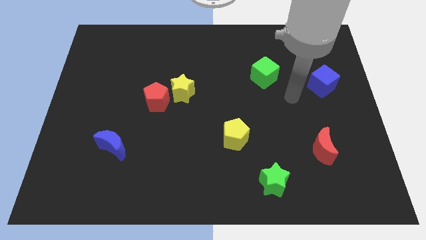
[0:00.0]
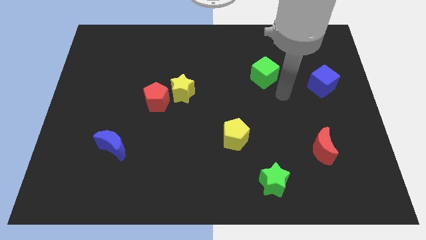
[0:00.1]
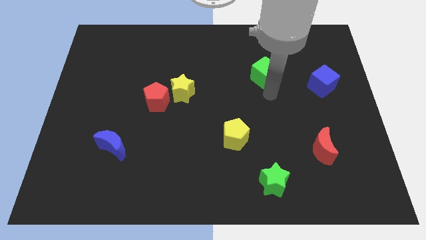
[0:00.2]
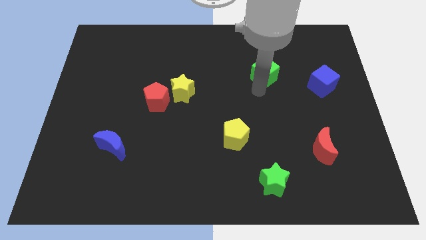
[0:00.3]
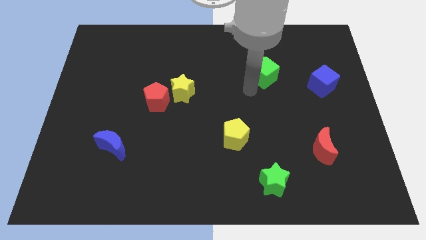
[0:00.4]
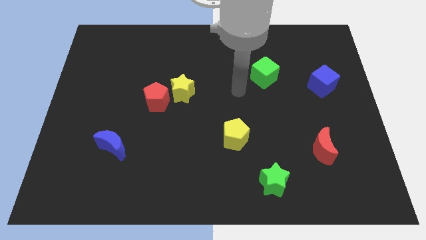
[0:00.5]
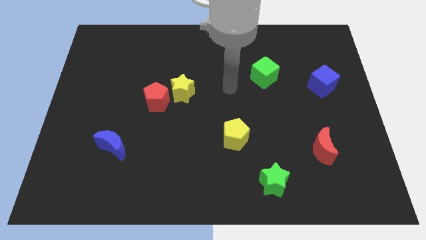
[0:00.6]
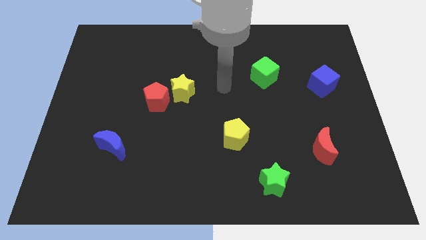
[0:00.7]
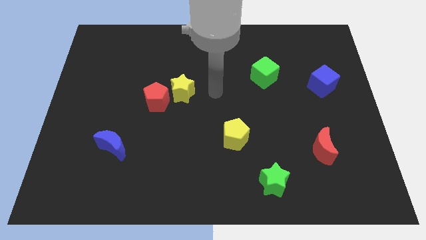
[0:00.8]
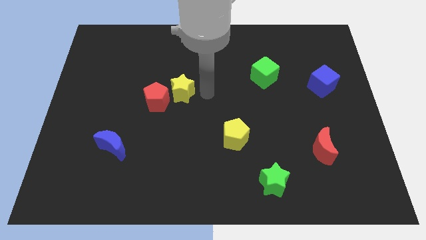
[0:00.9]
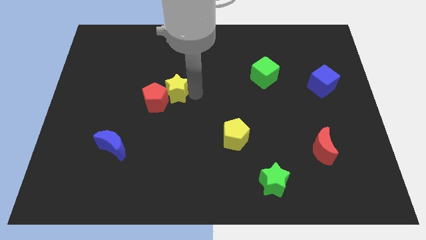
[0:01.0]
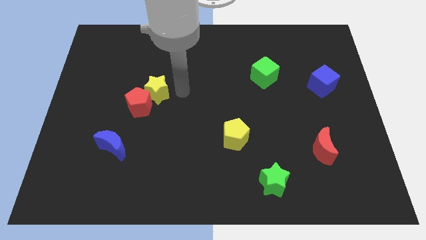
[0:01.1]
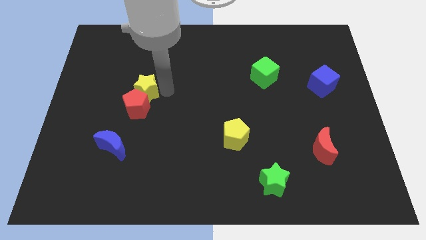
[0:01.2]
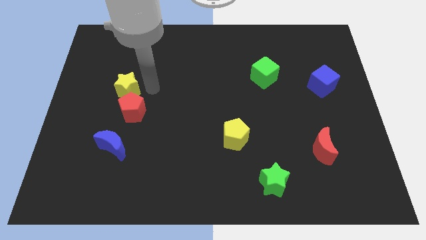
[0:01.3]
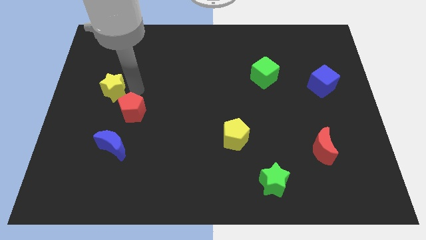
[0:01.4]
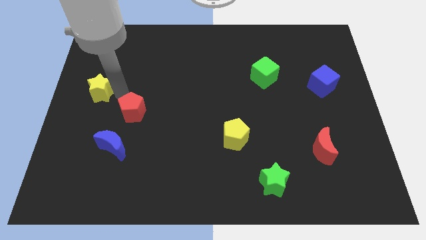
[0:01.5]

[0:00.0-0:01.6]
move the red pentagon away from the yellow star

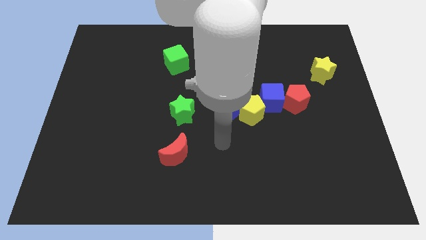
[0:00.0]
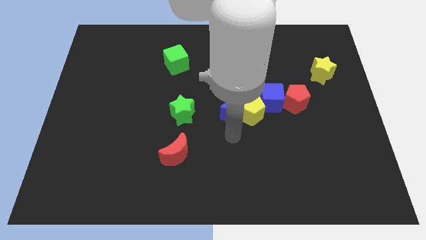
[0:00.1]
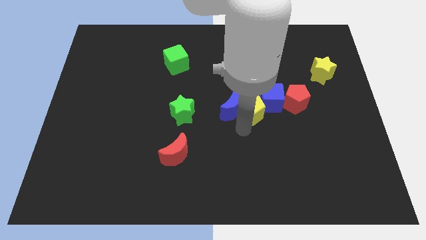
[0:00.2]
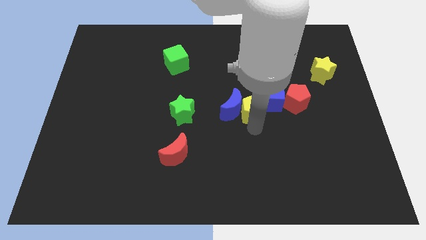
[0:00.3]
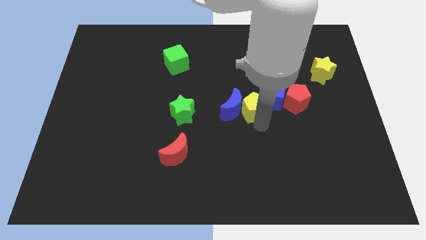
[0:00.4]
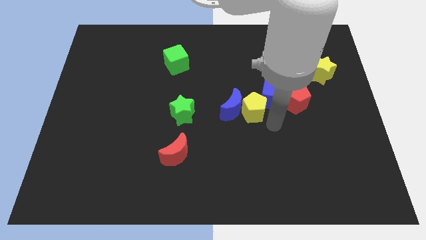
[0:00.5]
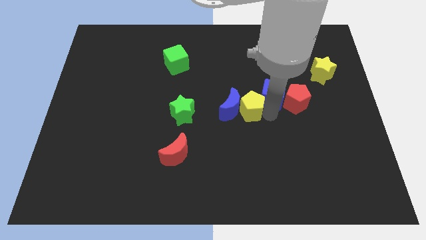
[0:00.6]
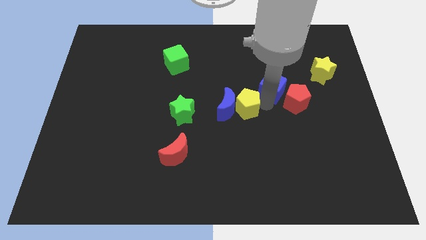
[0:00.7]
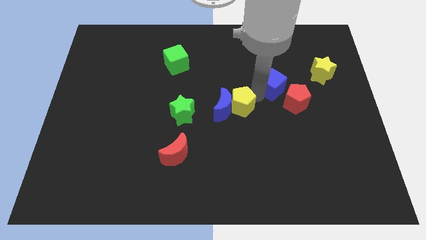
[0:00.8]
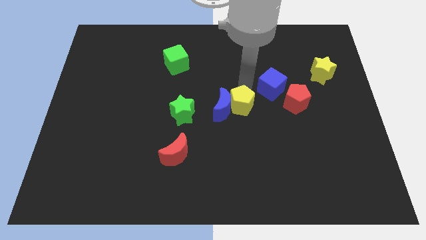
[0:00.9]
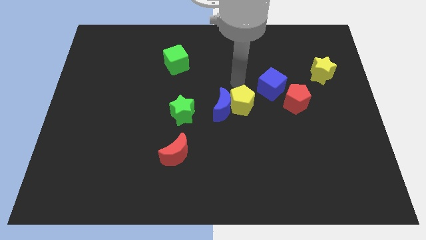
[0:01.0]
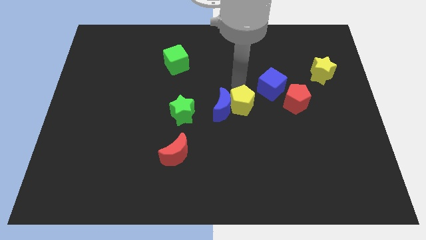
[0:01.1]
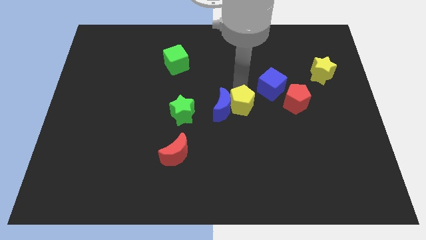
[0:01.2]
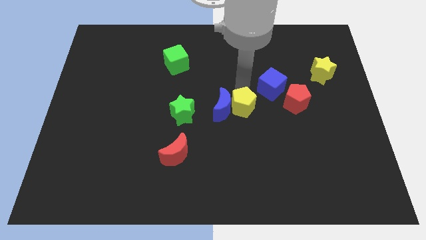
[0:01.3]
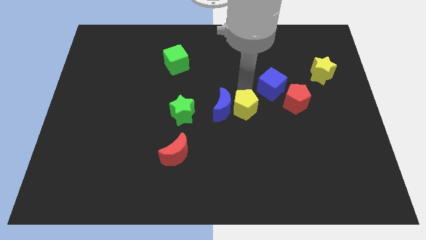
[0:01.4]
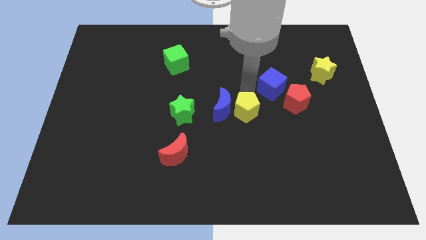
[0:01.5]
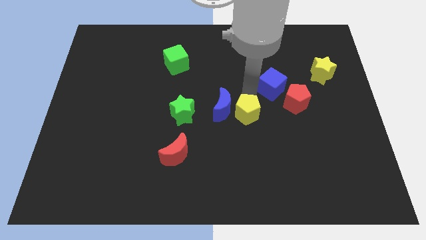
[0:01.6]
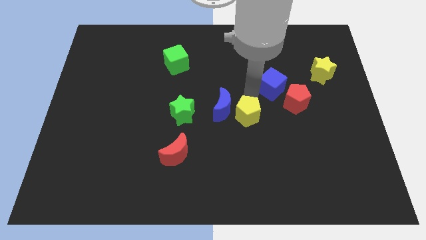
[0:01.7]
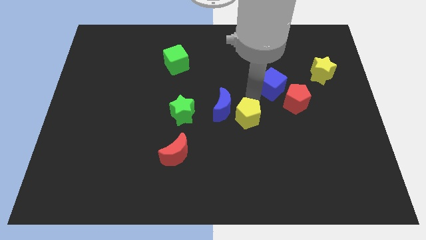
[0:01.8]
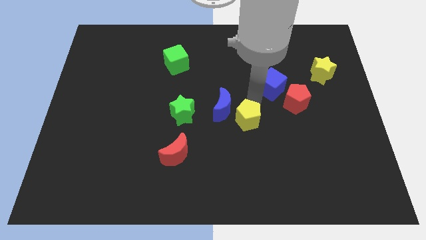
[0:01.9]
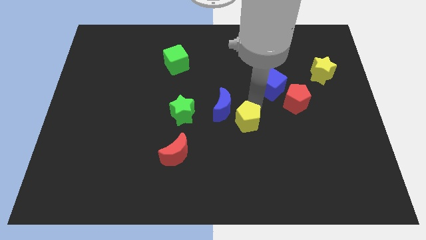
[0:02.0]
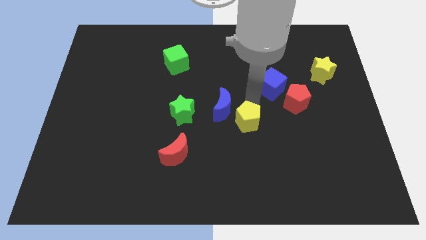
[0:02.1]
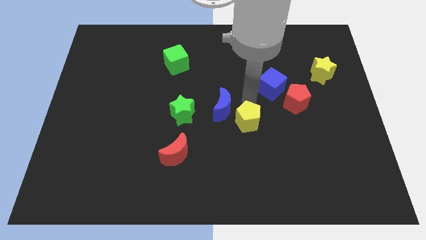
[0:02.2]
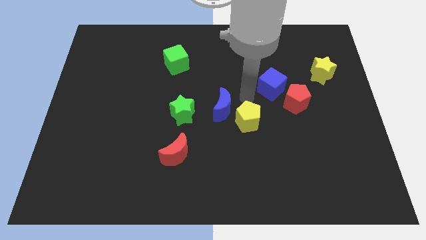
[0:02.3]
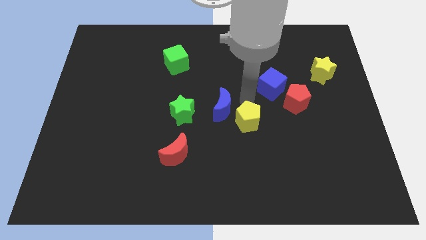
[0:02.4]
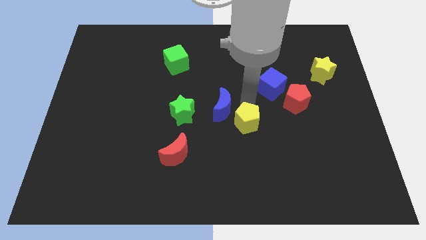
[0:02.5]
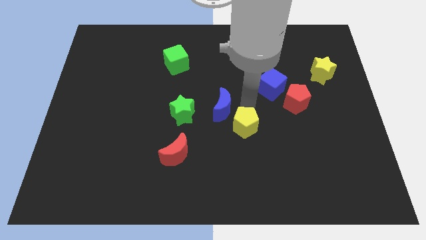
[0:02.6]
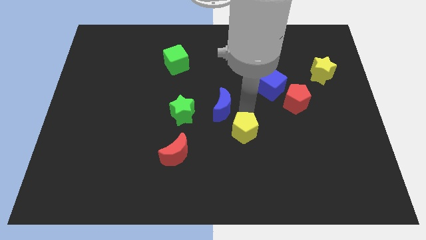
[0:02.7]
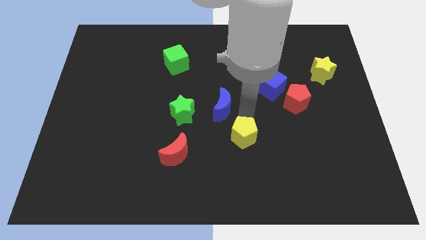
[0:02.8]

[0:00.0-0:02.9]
pull the yellow pentagon apart from the blue moon and blue cube

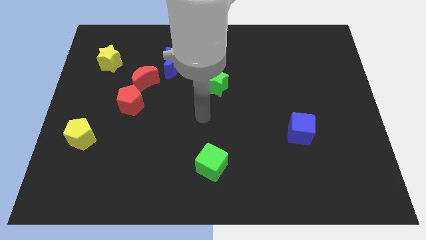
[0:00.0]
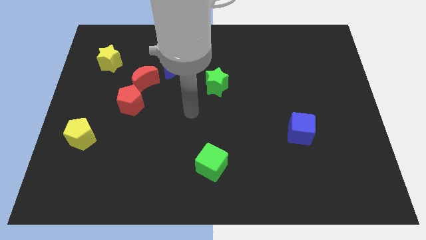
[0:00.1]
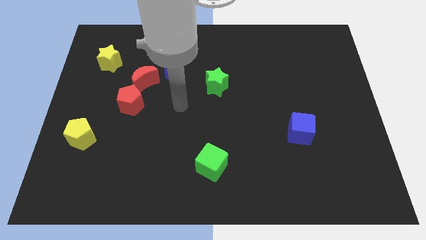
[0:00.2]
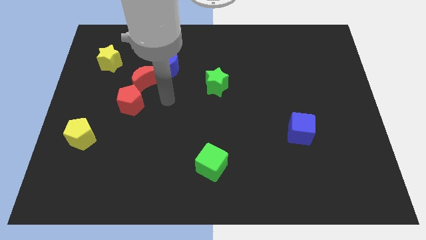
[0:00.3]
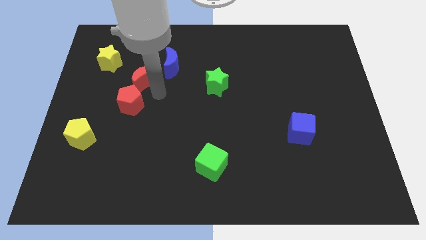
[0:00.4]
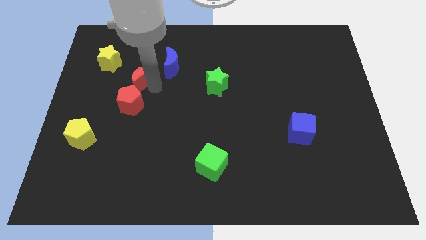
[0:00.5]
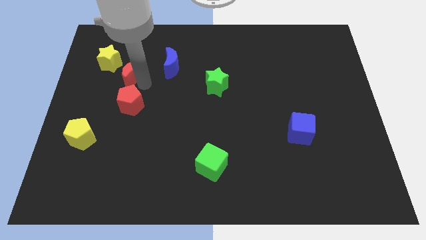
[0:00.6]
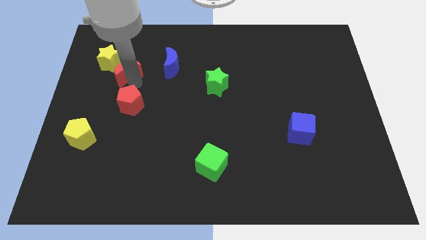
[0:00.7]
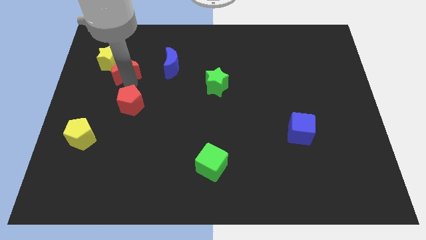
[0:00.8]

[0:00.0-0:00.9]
move the red pentagon away from the red moon

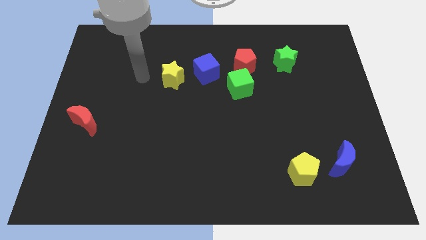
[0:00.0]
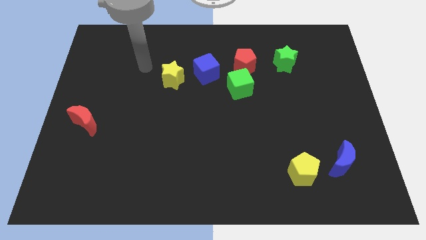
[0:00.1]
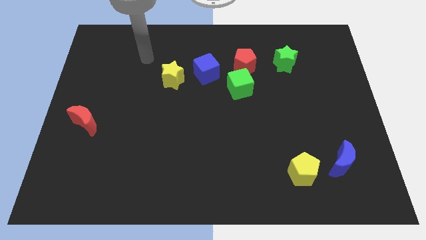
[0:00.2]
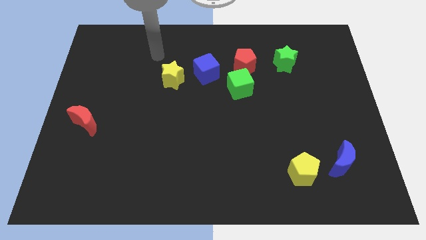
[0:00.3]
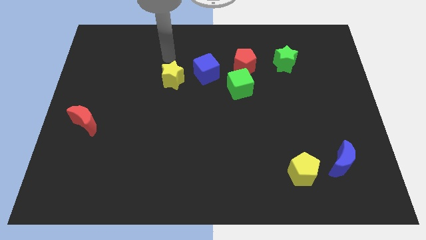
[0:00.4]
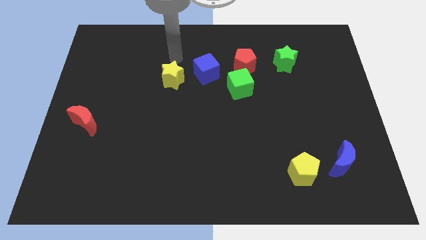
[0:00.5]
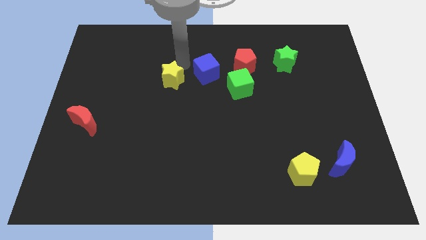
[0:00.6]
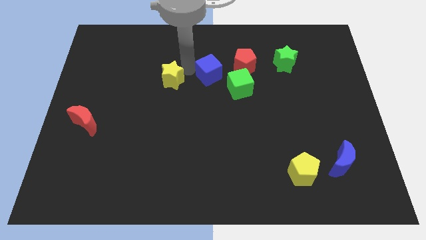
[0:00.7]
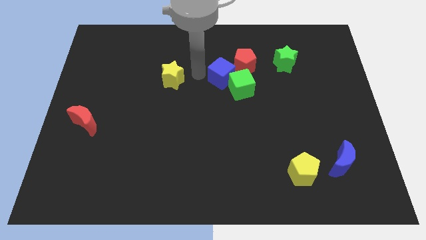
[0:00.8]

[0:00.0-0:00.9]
move the yellow star away from the blue cube

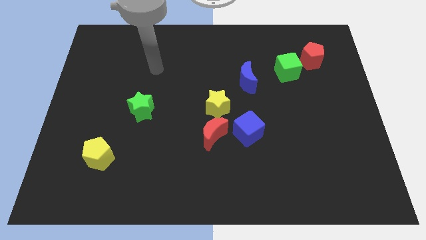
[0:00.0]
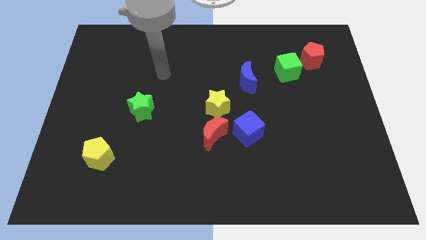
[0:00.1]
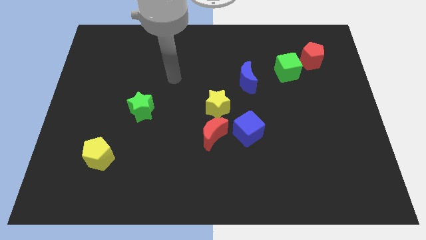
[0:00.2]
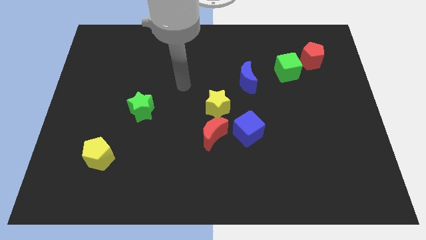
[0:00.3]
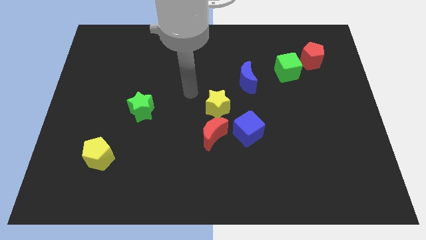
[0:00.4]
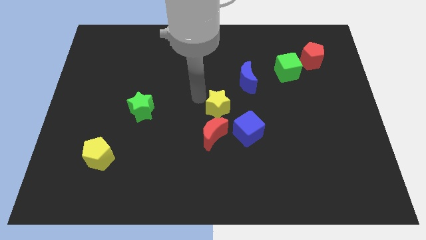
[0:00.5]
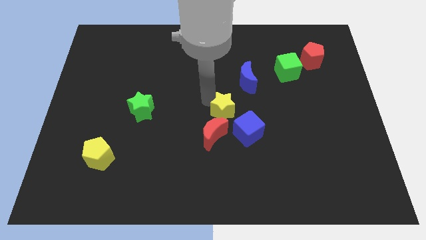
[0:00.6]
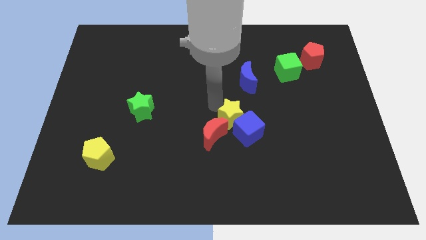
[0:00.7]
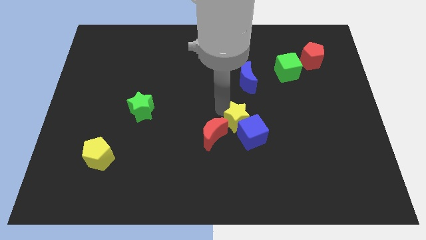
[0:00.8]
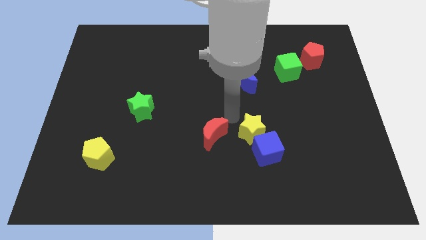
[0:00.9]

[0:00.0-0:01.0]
move the red moon away from the blue cube and yellow star

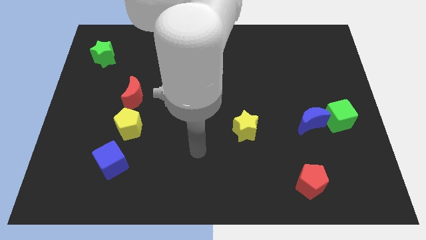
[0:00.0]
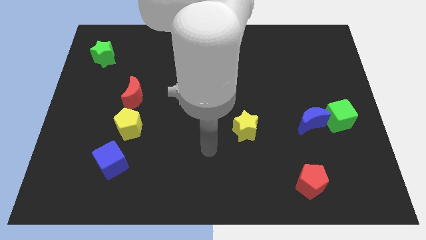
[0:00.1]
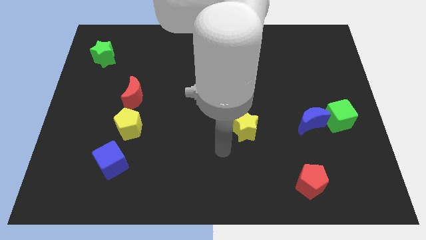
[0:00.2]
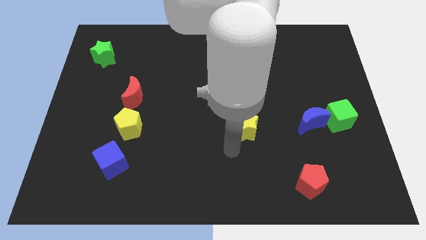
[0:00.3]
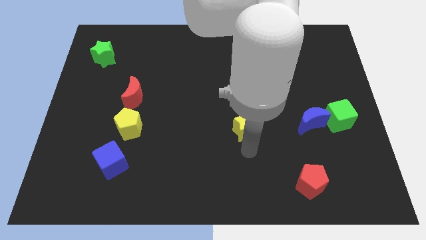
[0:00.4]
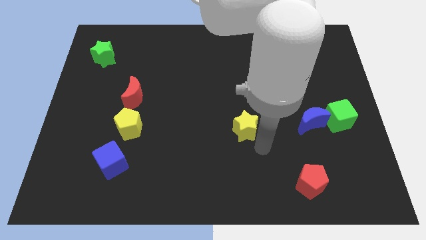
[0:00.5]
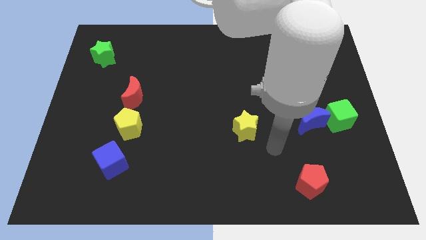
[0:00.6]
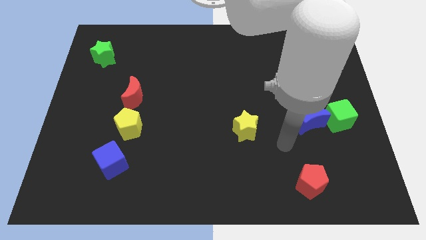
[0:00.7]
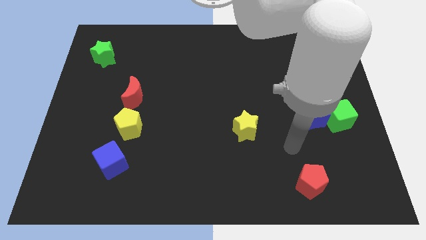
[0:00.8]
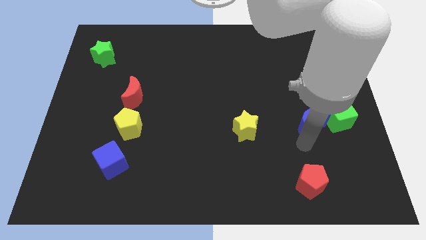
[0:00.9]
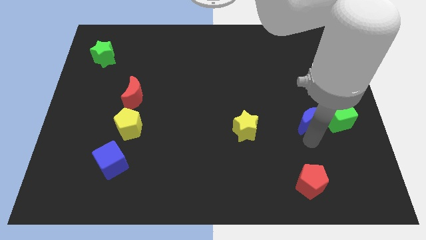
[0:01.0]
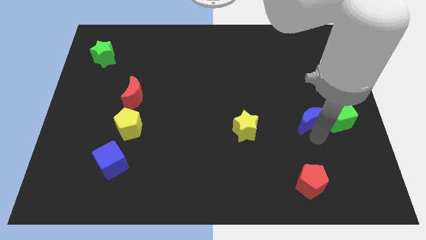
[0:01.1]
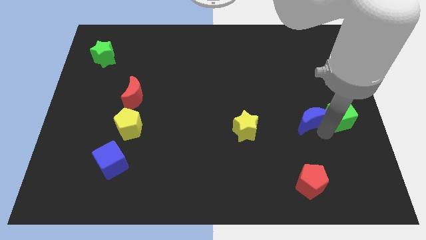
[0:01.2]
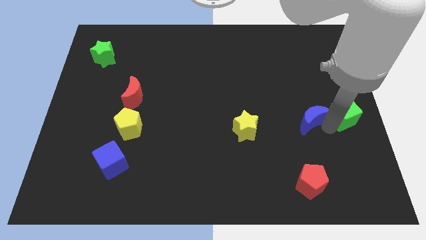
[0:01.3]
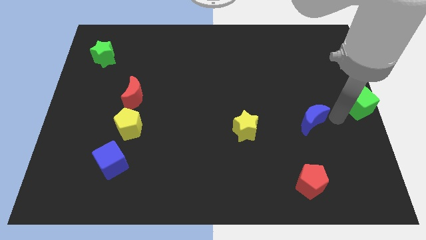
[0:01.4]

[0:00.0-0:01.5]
pull the blue moon apart from the green cube

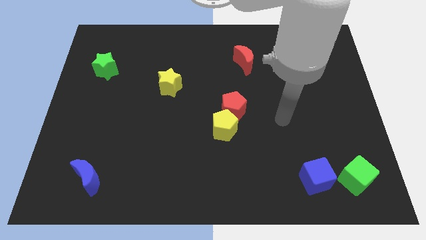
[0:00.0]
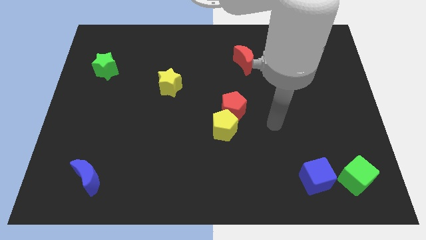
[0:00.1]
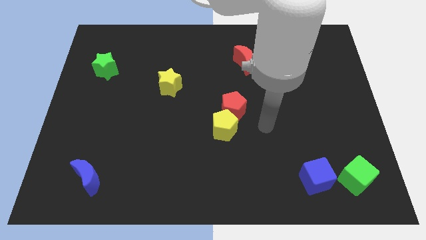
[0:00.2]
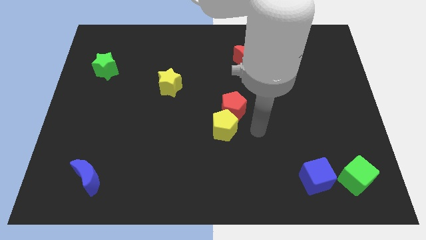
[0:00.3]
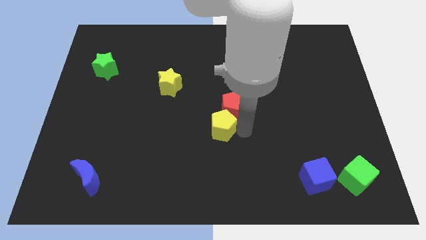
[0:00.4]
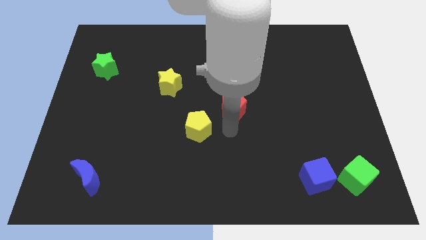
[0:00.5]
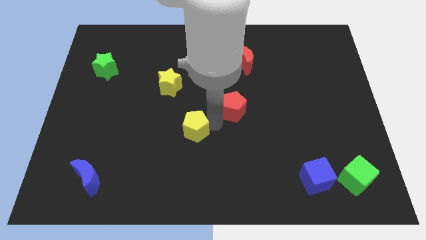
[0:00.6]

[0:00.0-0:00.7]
move the red pentagon away from the yellow pentagon

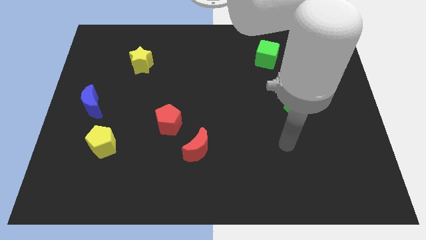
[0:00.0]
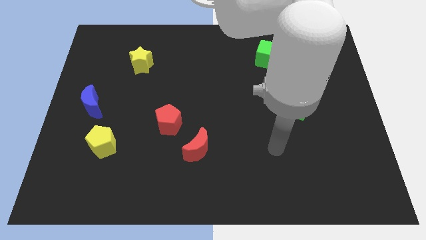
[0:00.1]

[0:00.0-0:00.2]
move the red moon away from the red pentagon
